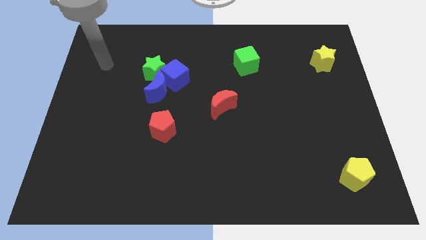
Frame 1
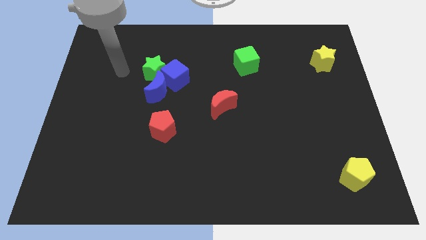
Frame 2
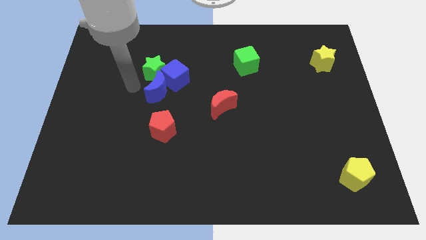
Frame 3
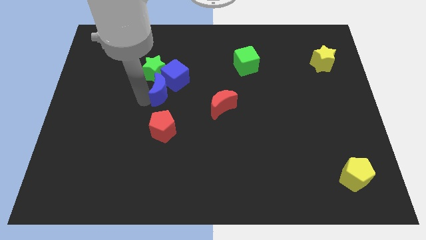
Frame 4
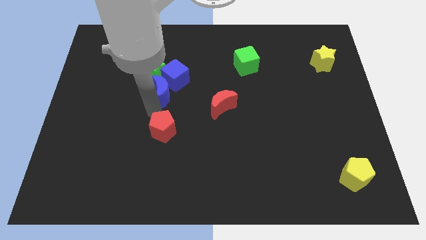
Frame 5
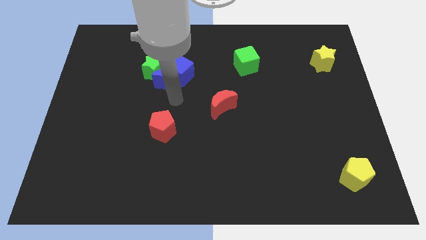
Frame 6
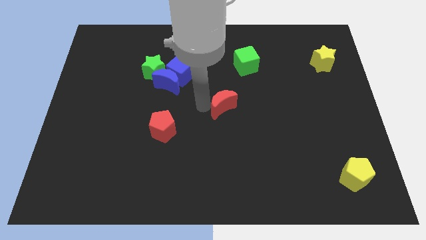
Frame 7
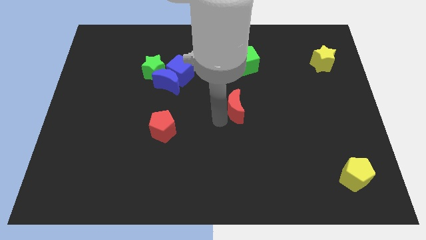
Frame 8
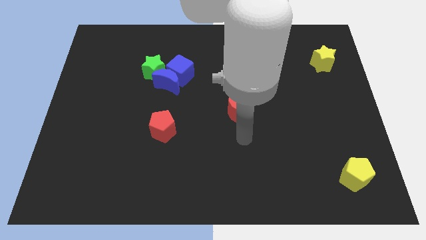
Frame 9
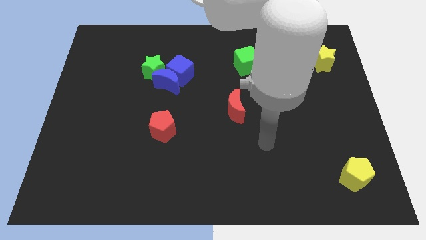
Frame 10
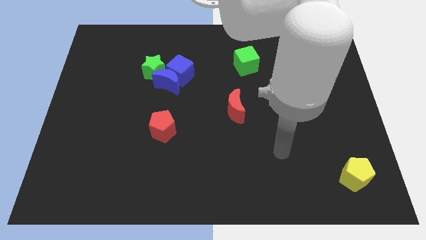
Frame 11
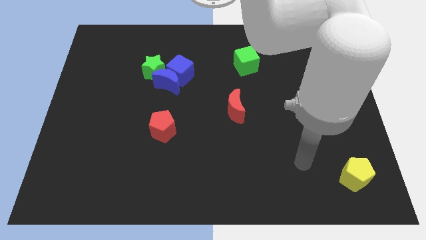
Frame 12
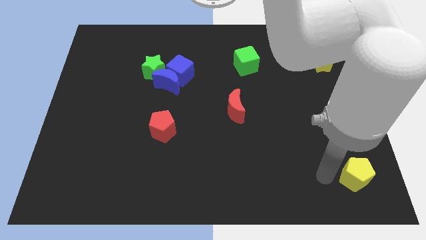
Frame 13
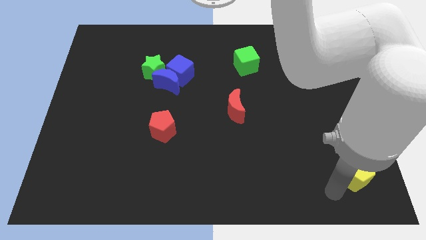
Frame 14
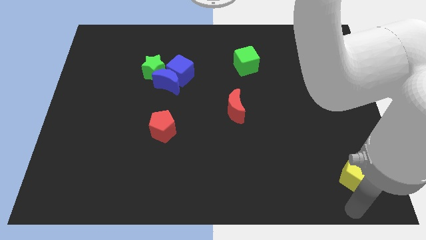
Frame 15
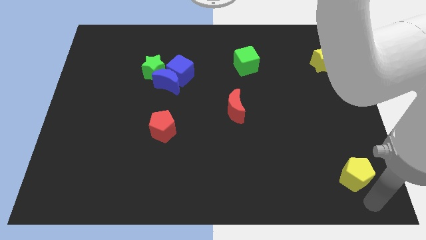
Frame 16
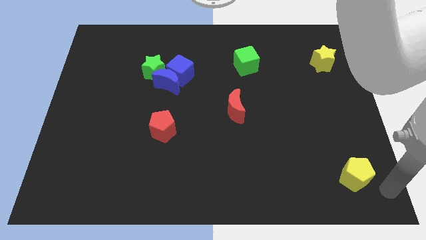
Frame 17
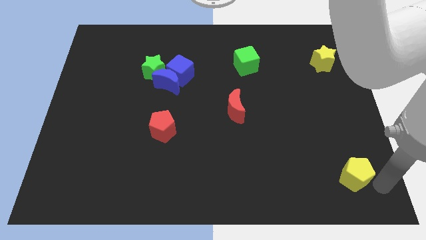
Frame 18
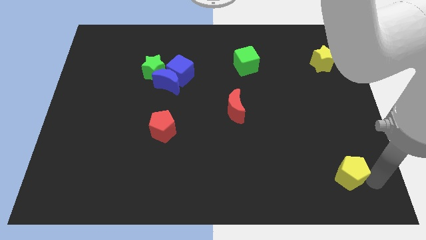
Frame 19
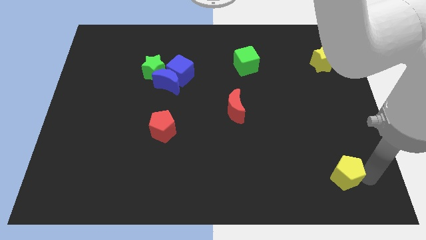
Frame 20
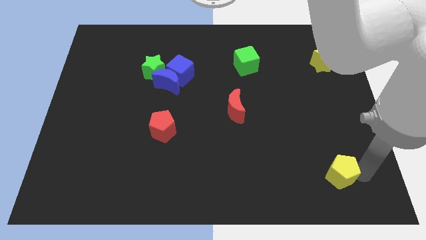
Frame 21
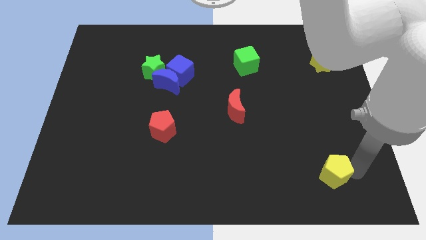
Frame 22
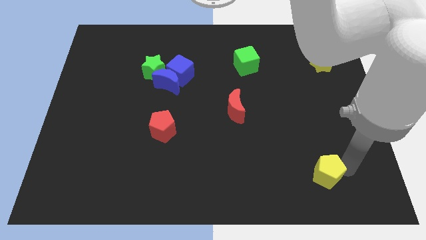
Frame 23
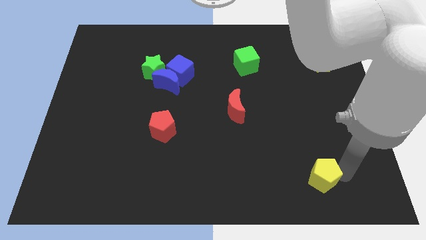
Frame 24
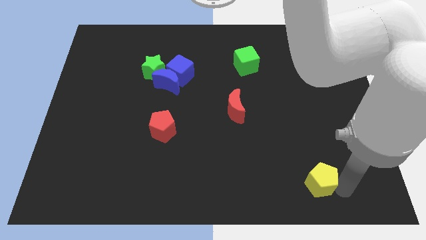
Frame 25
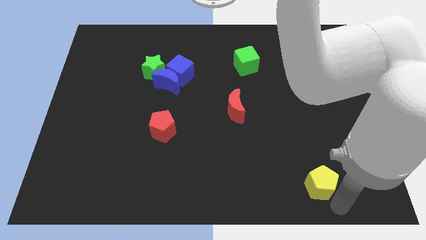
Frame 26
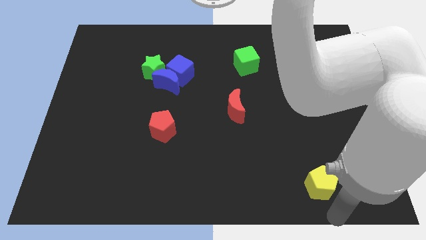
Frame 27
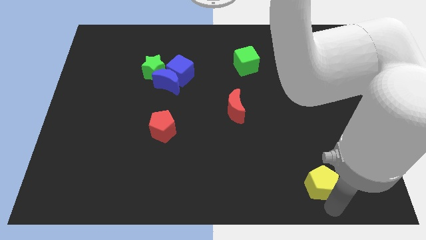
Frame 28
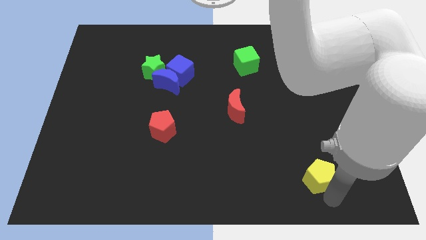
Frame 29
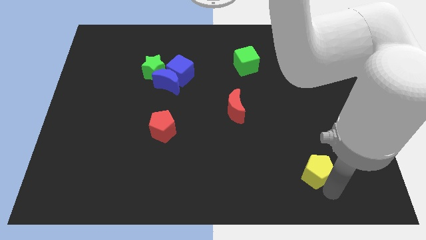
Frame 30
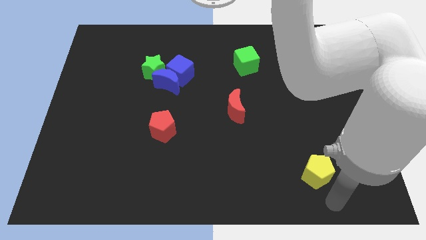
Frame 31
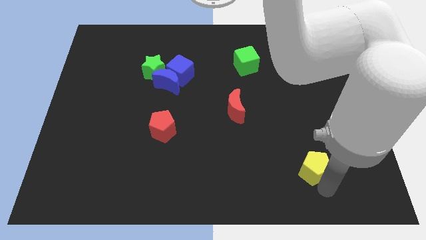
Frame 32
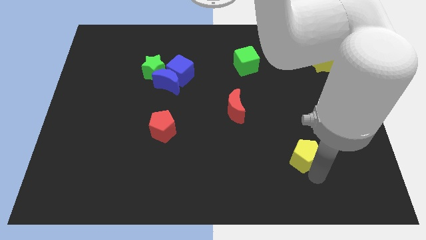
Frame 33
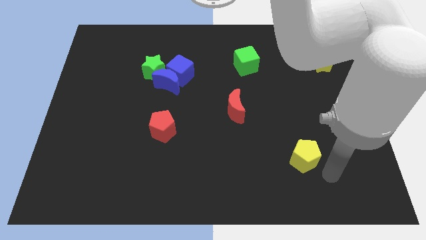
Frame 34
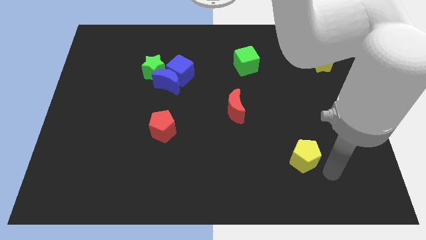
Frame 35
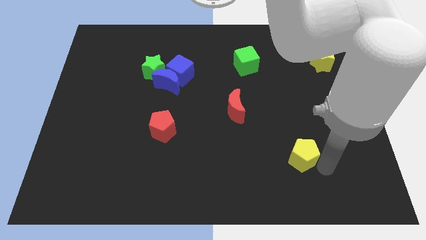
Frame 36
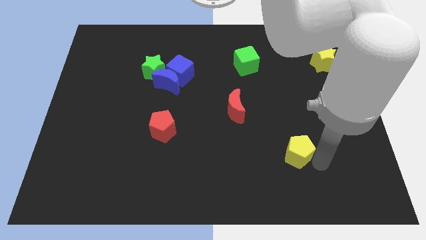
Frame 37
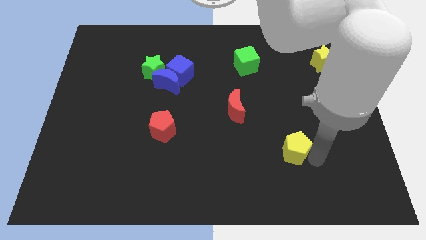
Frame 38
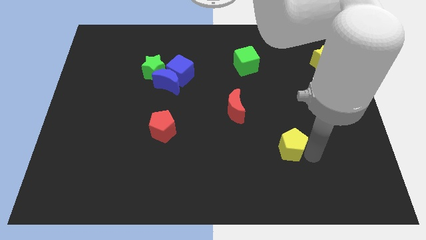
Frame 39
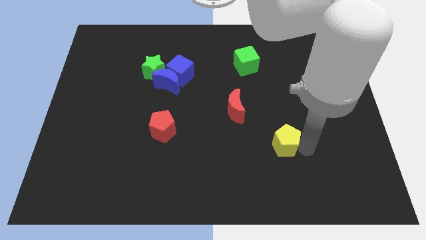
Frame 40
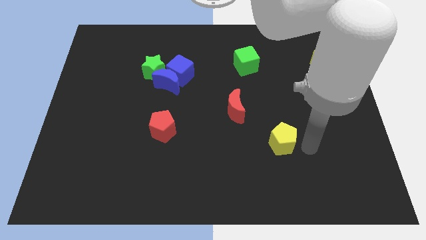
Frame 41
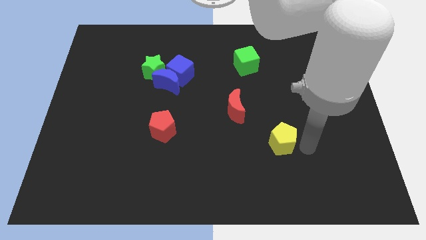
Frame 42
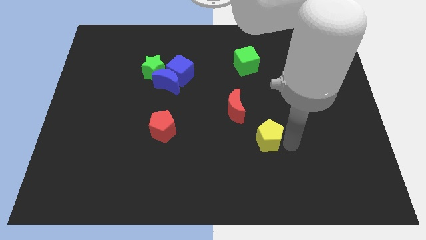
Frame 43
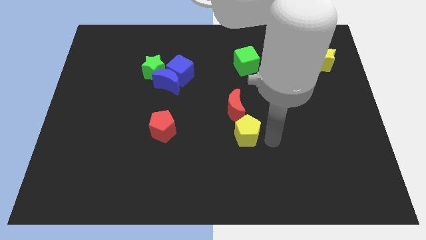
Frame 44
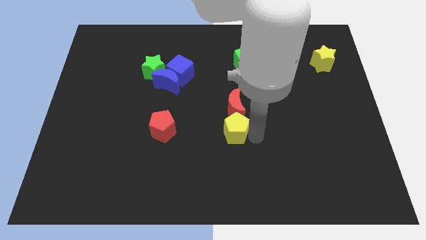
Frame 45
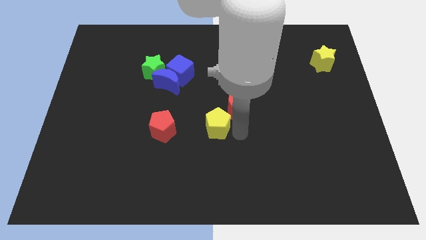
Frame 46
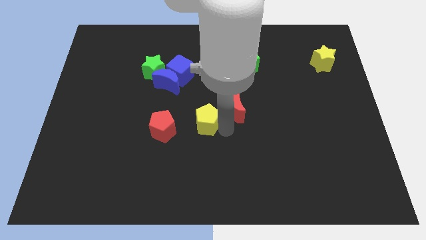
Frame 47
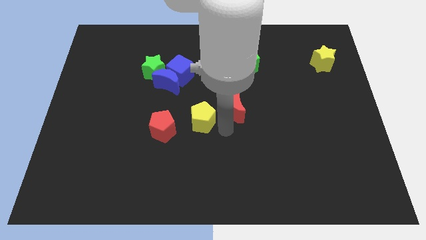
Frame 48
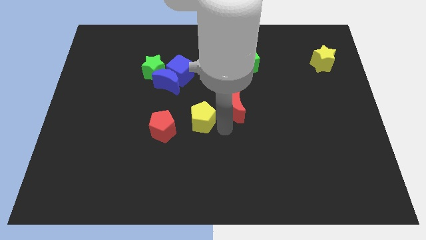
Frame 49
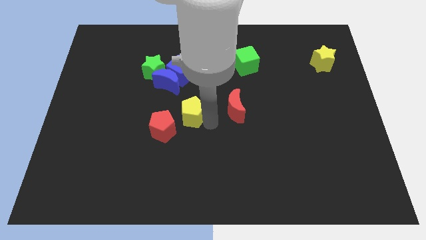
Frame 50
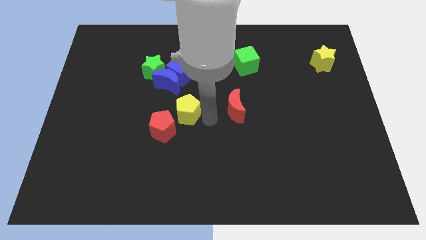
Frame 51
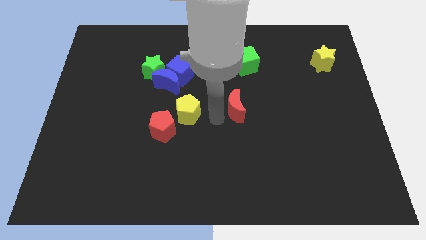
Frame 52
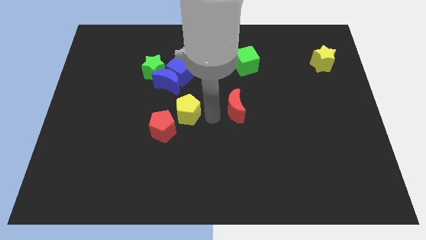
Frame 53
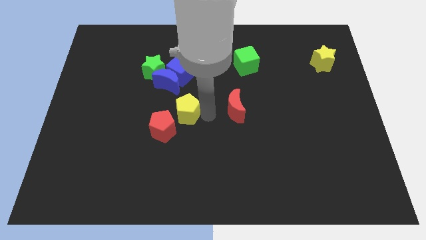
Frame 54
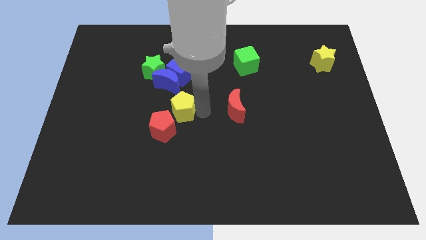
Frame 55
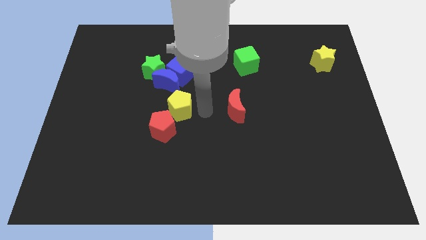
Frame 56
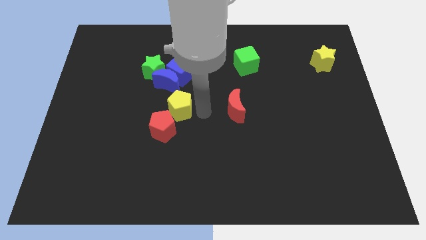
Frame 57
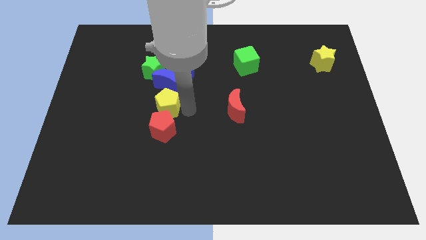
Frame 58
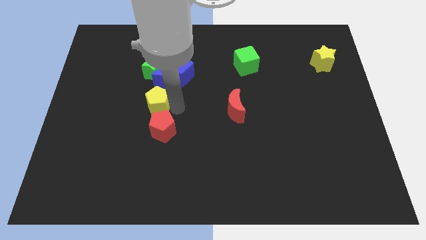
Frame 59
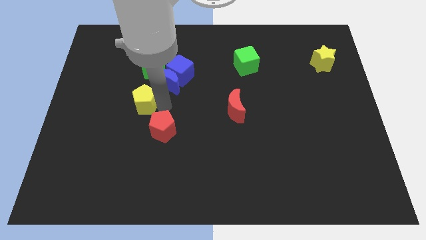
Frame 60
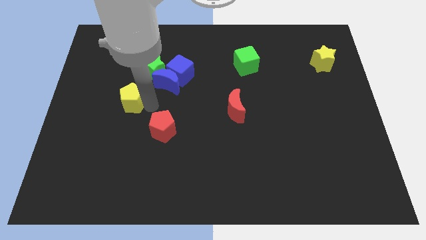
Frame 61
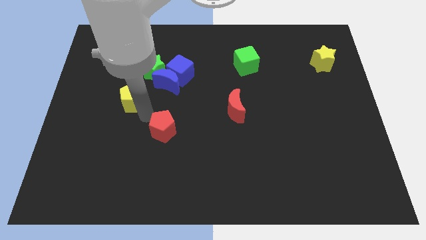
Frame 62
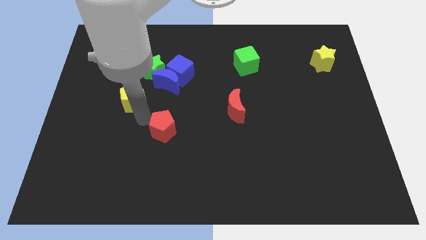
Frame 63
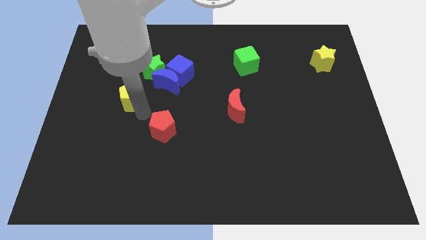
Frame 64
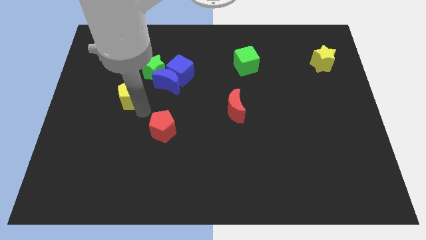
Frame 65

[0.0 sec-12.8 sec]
put the yellow pentagon to the left side of the blue moon

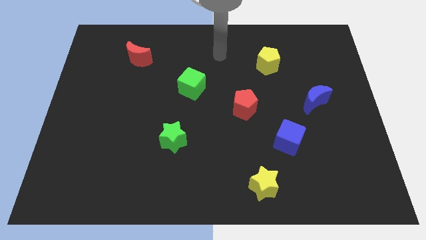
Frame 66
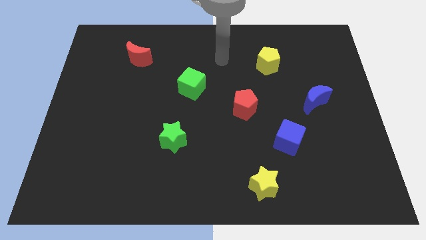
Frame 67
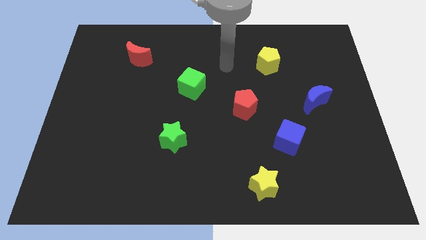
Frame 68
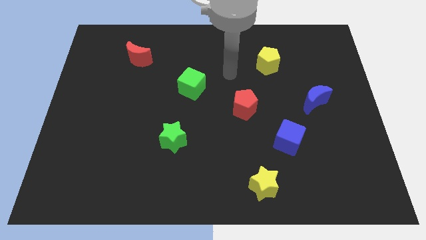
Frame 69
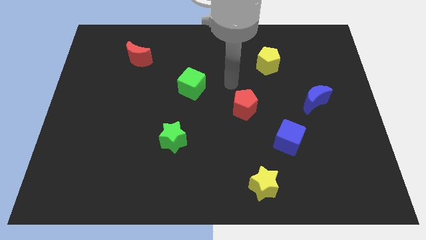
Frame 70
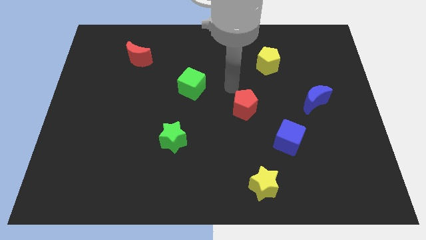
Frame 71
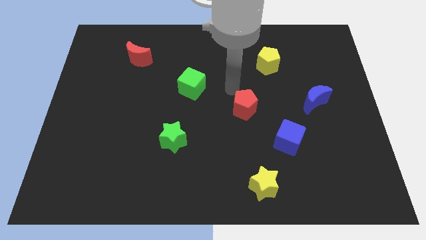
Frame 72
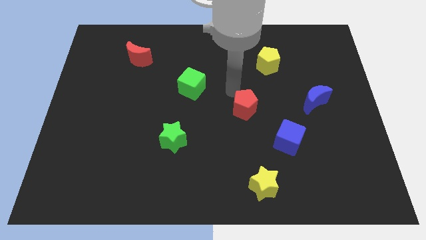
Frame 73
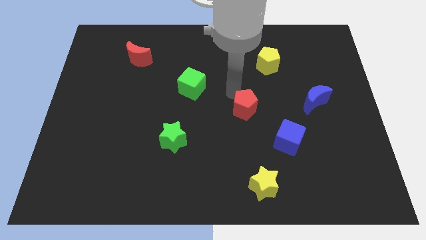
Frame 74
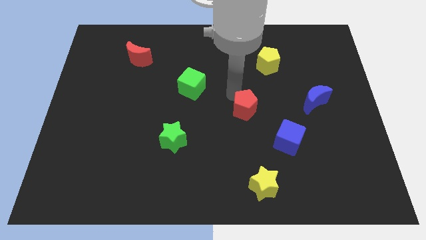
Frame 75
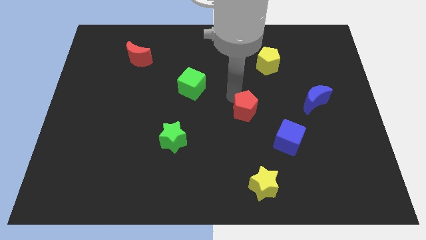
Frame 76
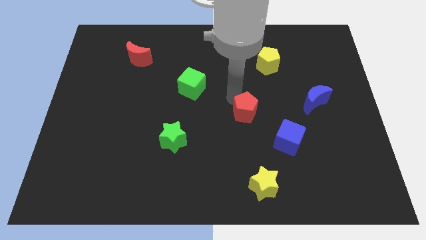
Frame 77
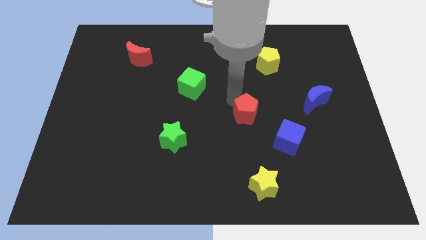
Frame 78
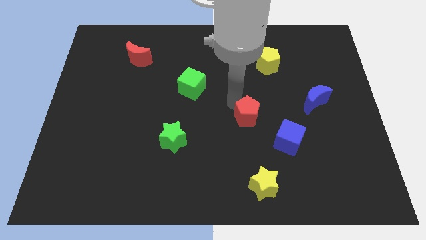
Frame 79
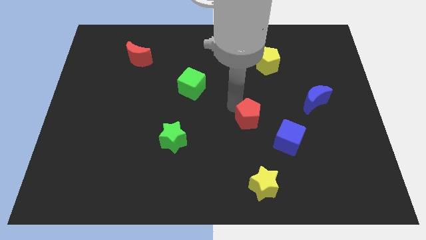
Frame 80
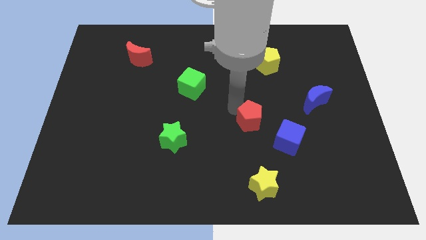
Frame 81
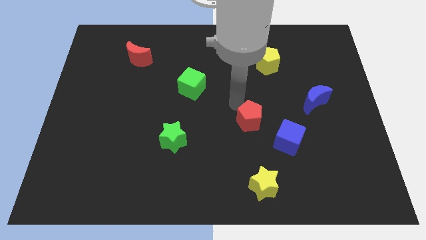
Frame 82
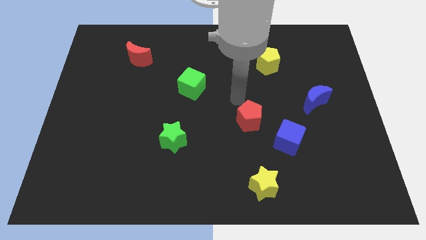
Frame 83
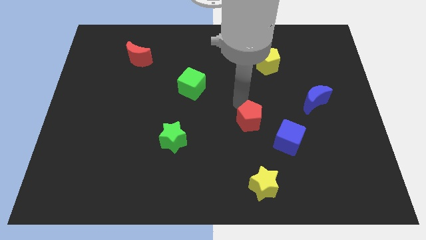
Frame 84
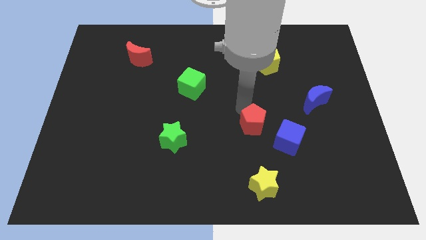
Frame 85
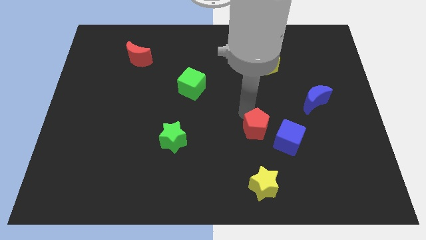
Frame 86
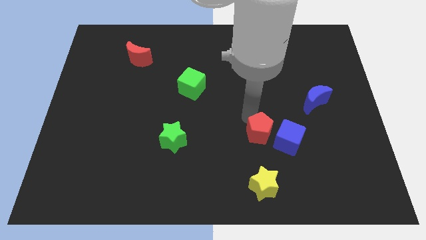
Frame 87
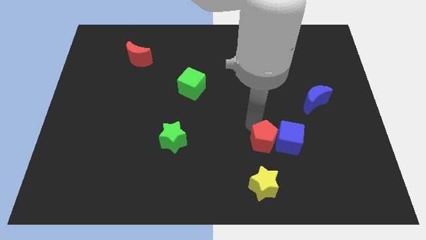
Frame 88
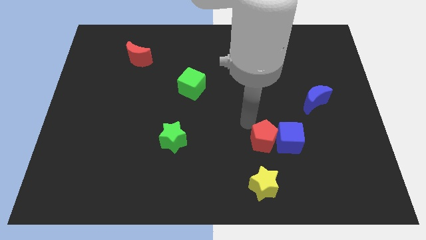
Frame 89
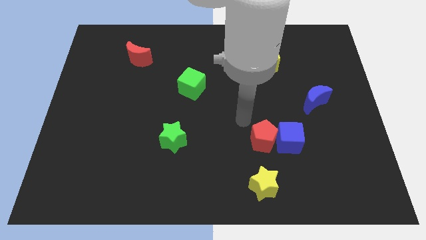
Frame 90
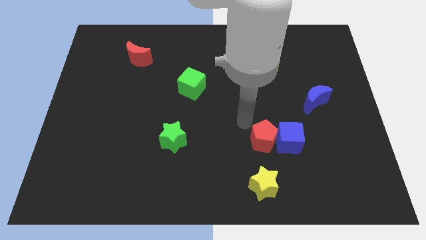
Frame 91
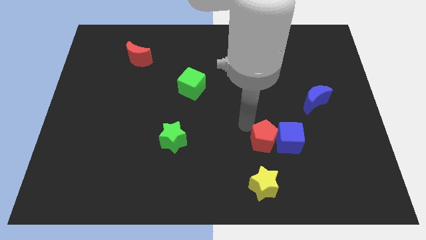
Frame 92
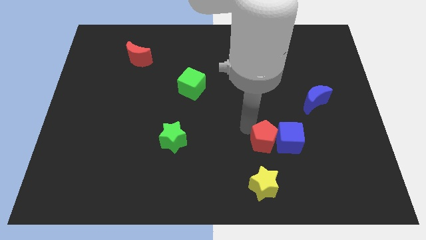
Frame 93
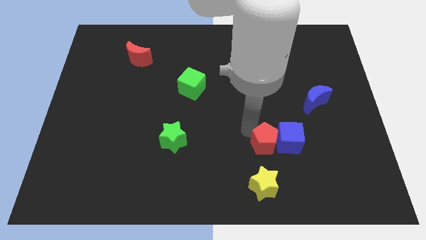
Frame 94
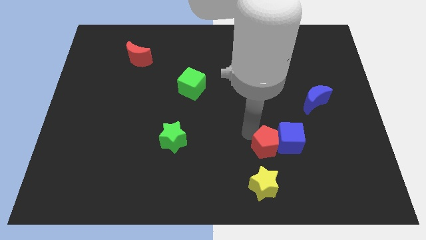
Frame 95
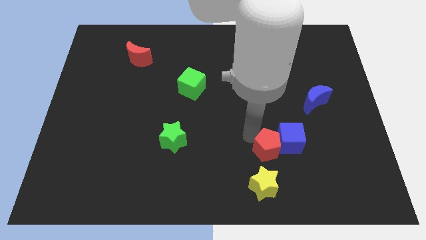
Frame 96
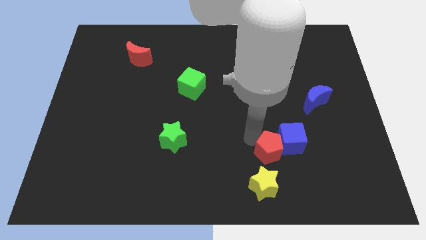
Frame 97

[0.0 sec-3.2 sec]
move the red pentagon diagonally up and to the right of the yellow star
